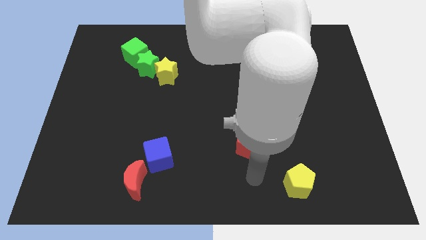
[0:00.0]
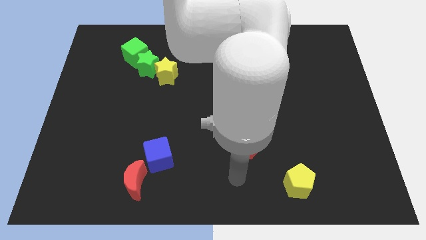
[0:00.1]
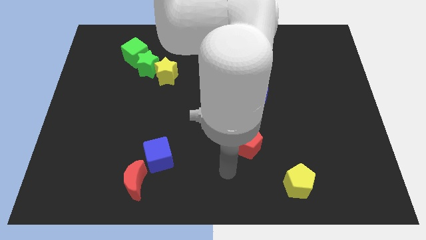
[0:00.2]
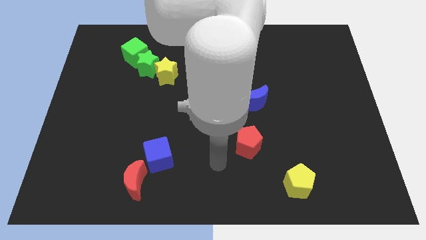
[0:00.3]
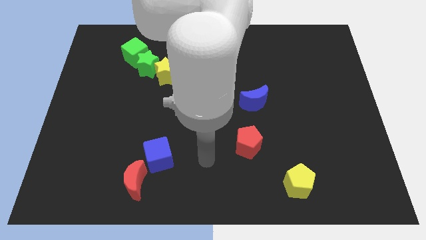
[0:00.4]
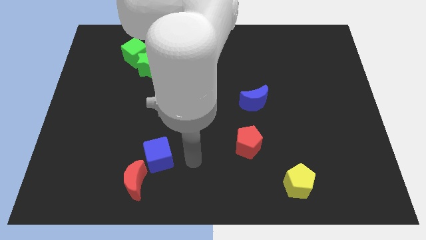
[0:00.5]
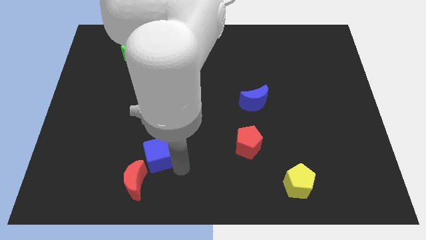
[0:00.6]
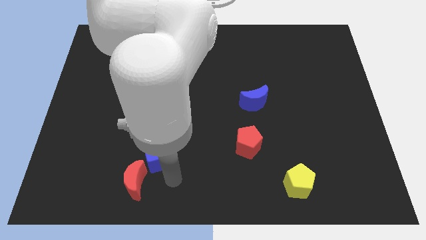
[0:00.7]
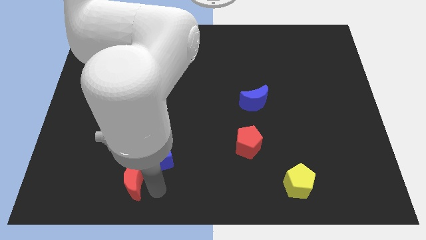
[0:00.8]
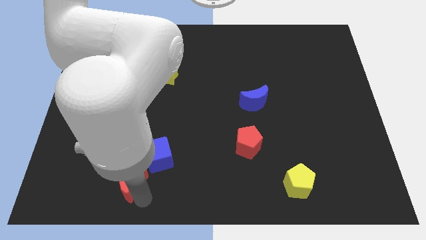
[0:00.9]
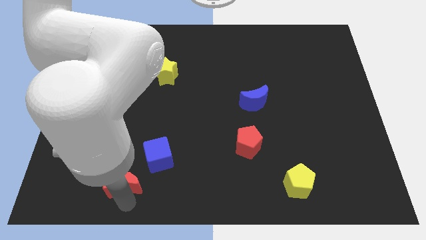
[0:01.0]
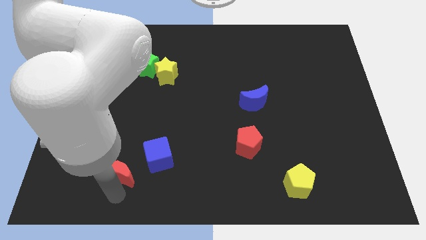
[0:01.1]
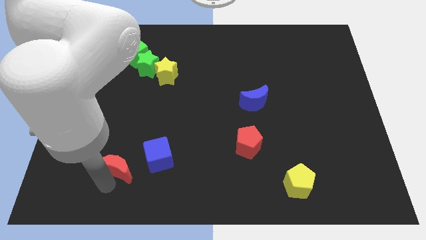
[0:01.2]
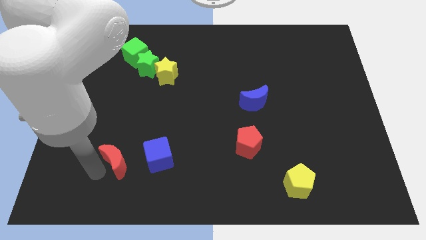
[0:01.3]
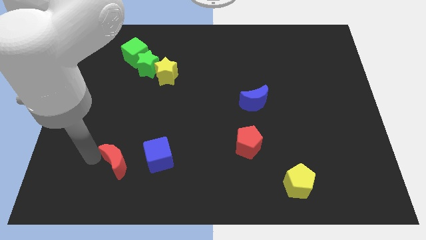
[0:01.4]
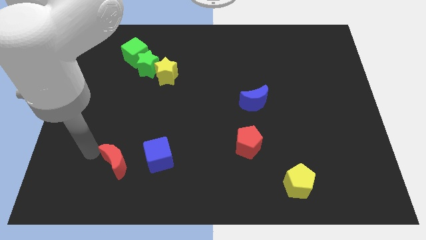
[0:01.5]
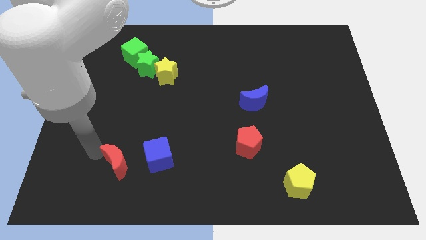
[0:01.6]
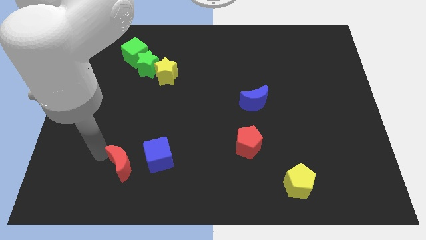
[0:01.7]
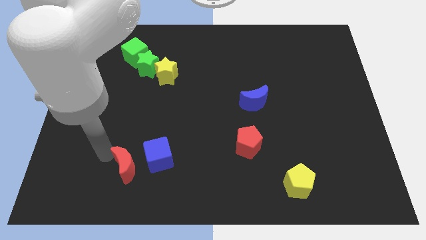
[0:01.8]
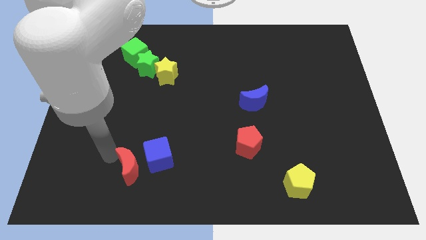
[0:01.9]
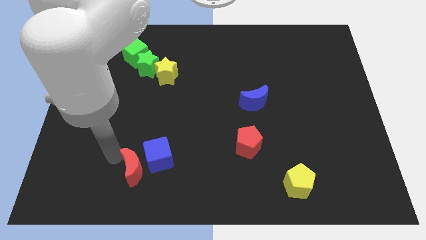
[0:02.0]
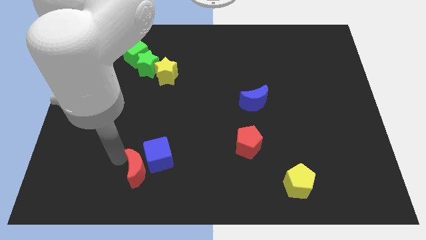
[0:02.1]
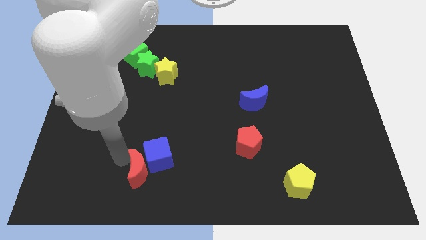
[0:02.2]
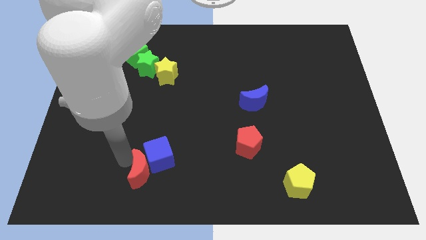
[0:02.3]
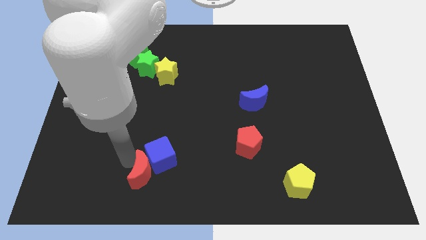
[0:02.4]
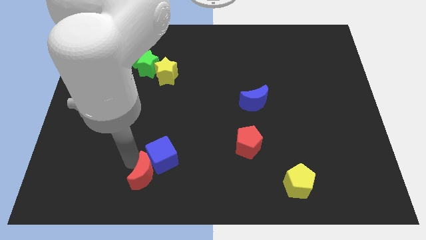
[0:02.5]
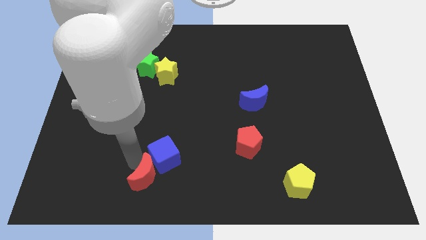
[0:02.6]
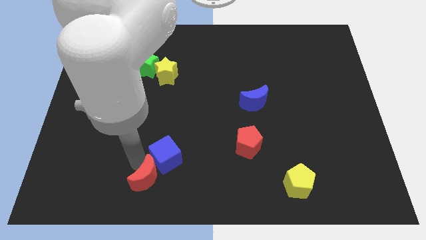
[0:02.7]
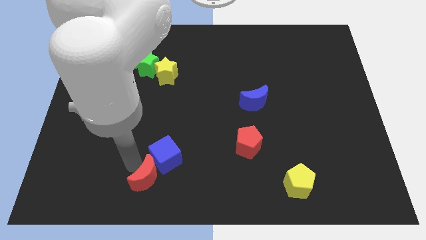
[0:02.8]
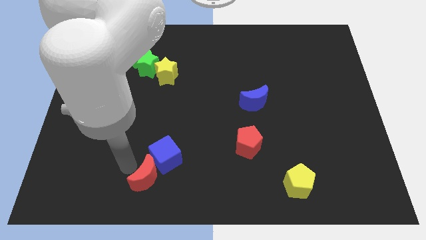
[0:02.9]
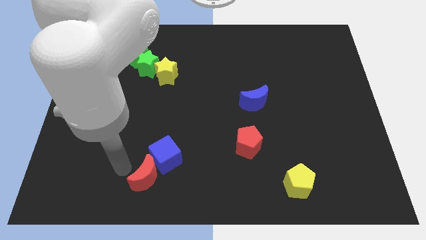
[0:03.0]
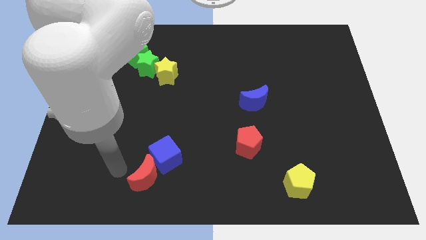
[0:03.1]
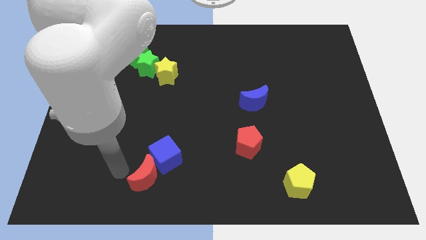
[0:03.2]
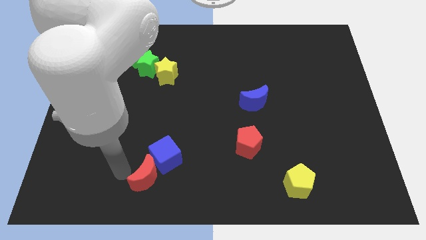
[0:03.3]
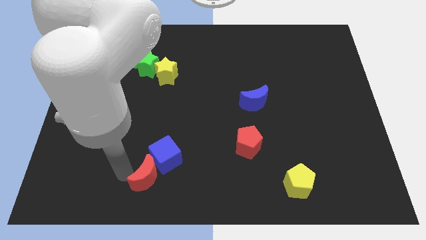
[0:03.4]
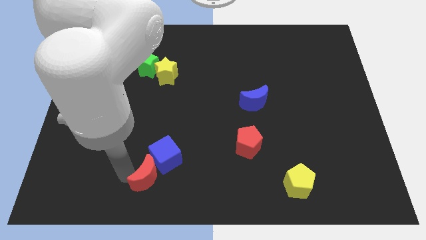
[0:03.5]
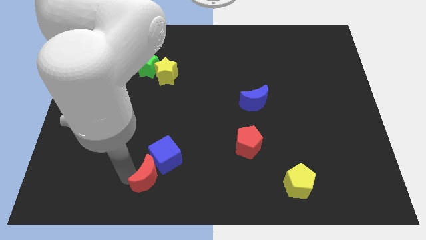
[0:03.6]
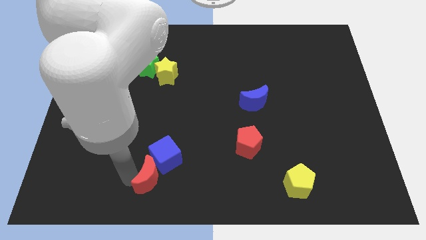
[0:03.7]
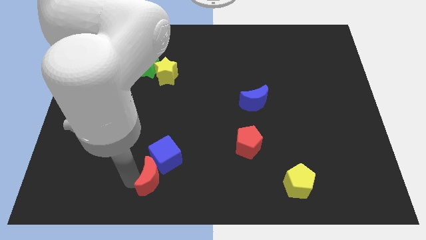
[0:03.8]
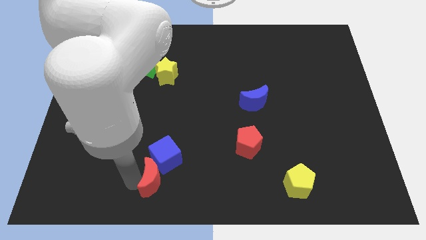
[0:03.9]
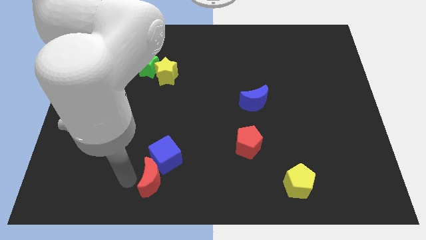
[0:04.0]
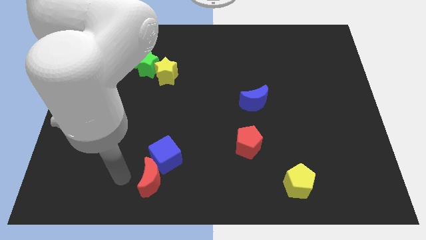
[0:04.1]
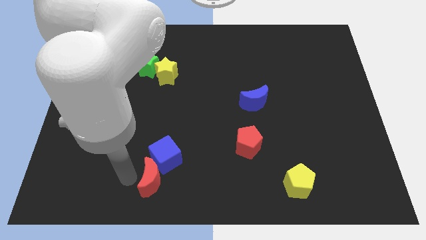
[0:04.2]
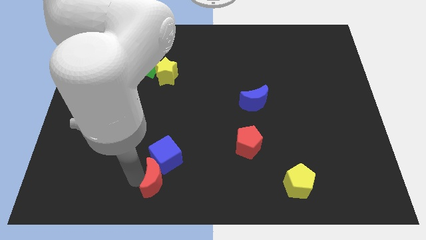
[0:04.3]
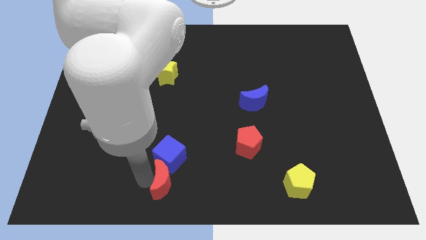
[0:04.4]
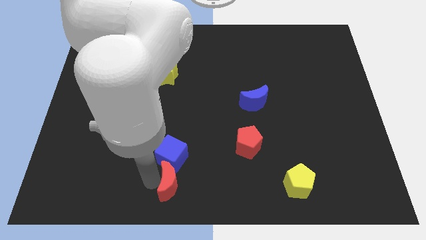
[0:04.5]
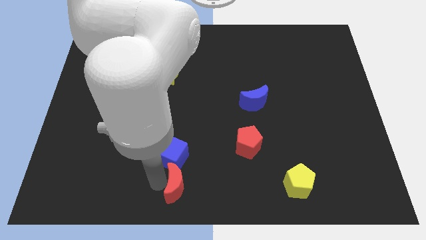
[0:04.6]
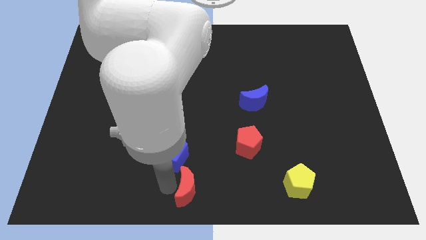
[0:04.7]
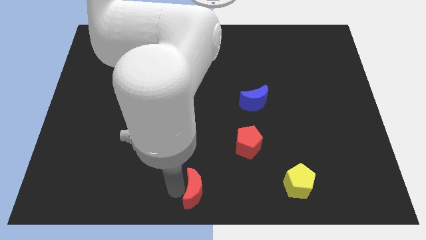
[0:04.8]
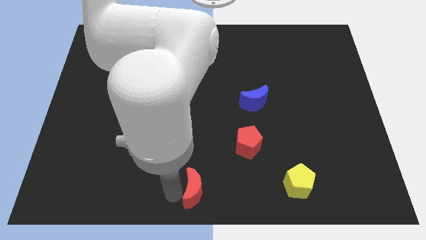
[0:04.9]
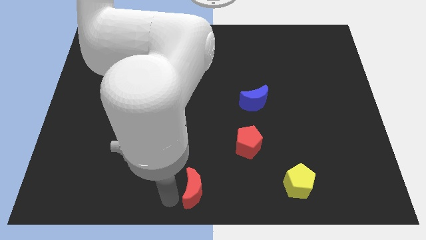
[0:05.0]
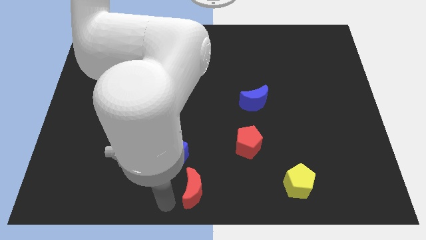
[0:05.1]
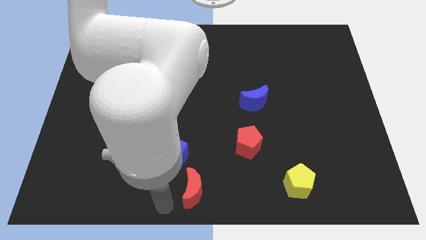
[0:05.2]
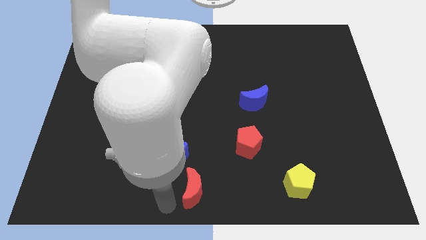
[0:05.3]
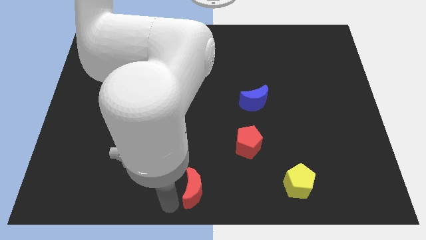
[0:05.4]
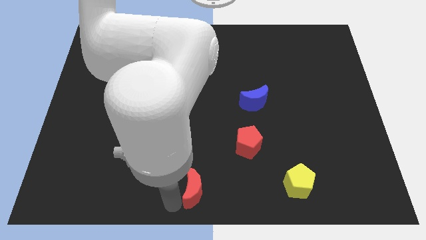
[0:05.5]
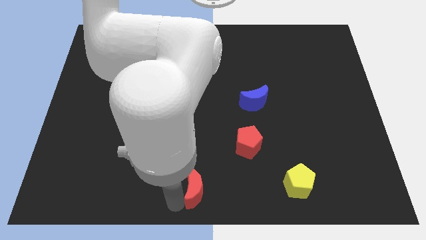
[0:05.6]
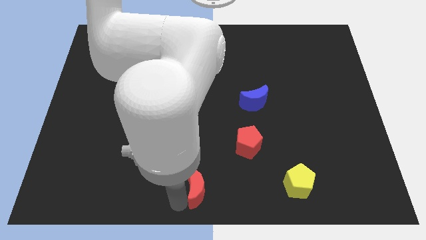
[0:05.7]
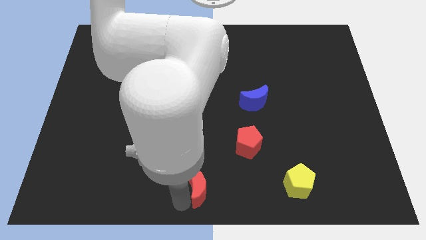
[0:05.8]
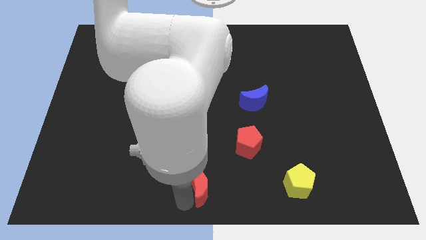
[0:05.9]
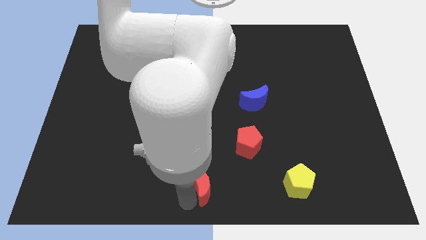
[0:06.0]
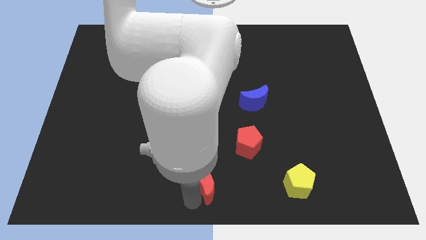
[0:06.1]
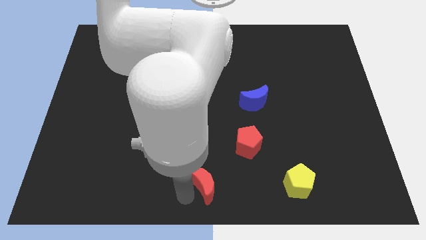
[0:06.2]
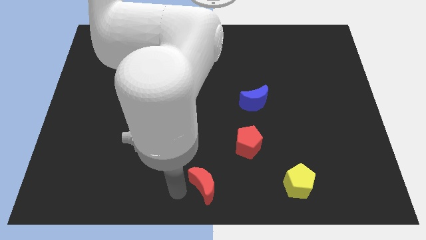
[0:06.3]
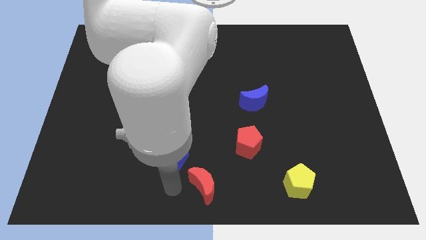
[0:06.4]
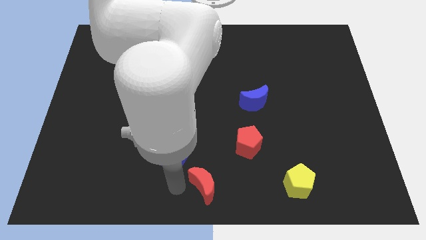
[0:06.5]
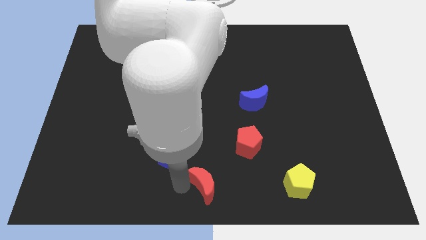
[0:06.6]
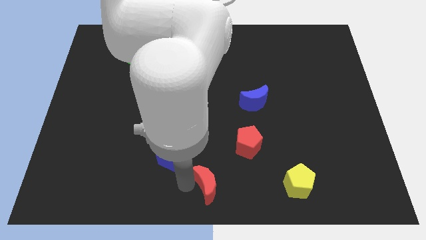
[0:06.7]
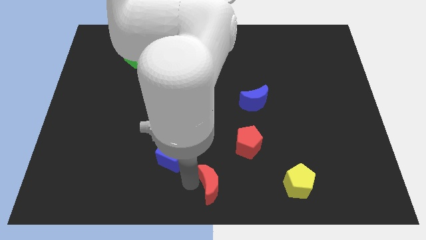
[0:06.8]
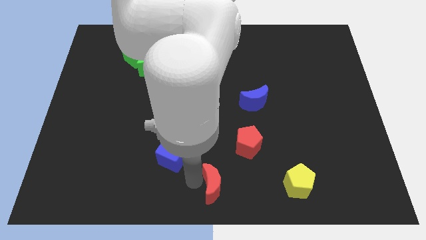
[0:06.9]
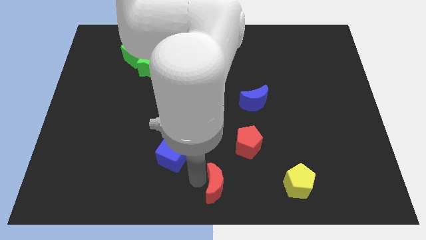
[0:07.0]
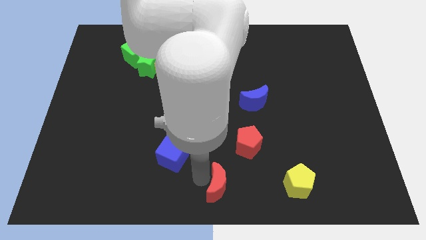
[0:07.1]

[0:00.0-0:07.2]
move the red moon left of the yellow pentagon

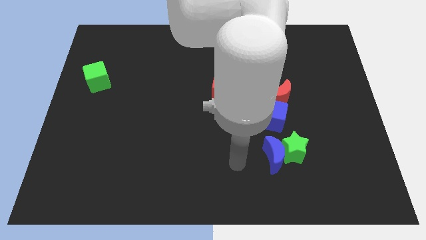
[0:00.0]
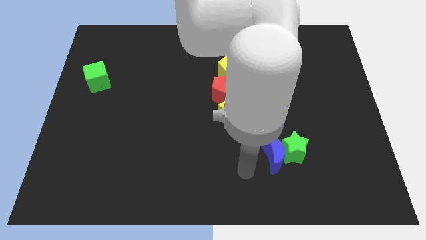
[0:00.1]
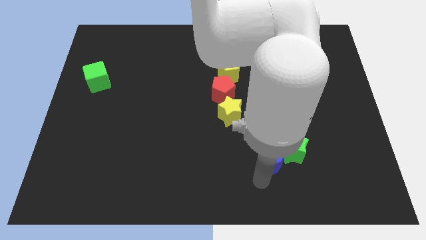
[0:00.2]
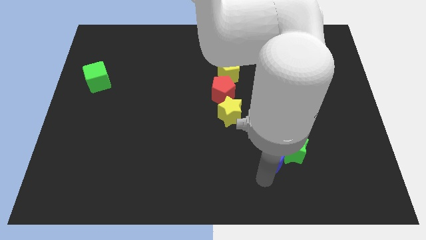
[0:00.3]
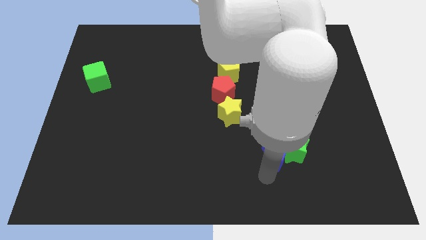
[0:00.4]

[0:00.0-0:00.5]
move the blue moon below the red moon
